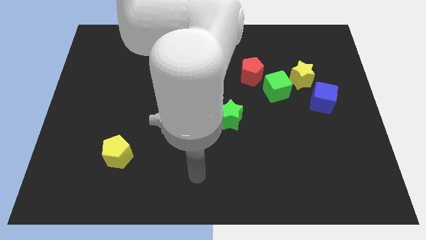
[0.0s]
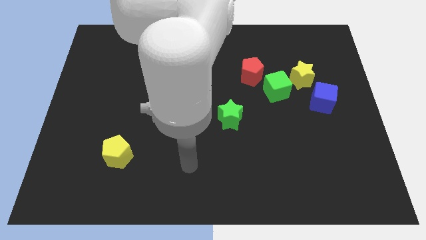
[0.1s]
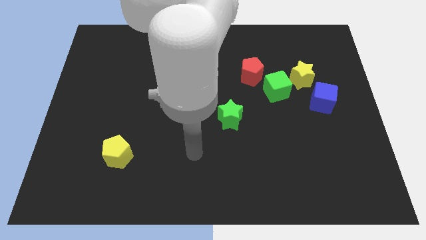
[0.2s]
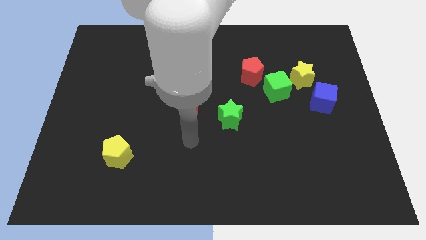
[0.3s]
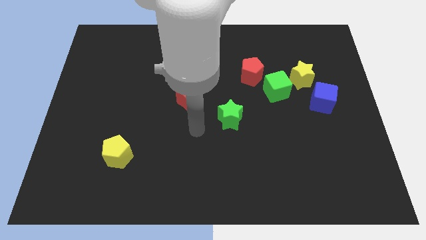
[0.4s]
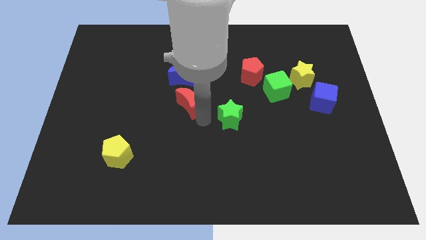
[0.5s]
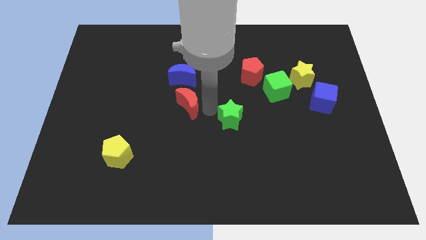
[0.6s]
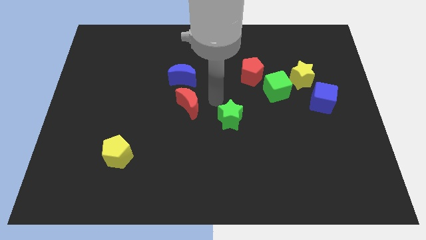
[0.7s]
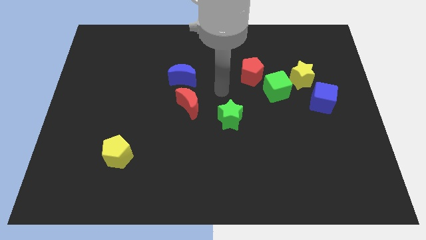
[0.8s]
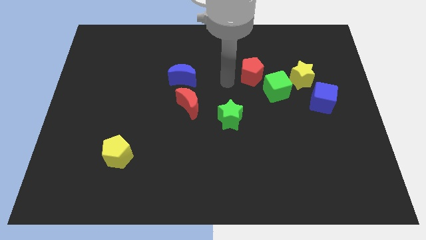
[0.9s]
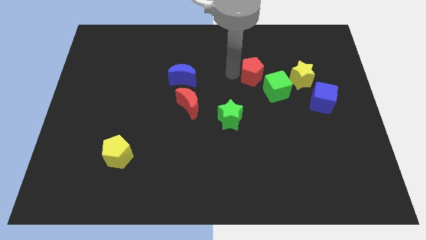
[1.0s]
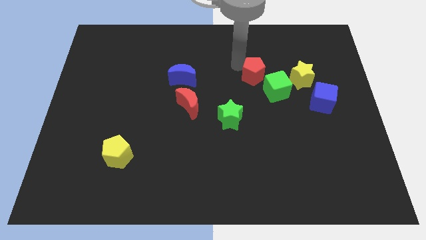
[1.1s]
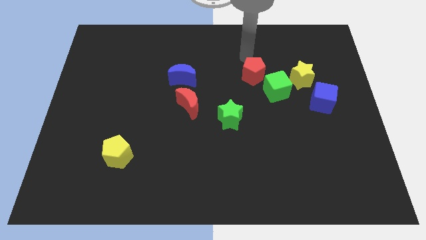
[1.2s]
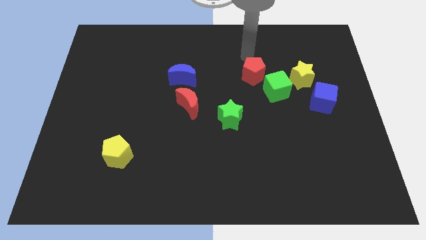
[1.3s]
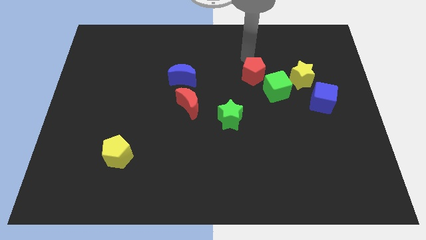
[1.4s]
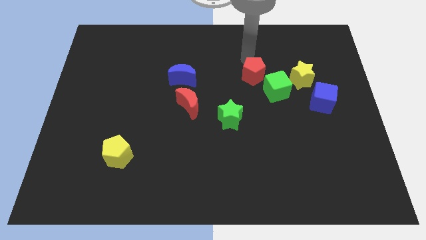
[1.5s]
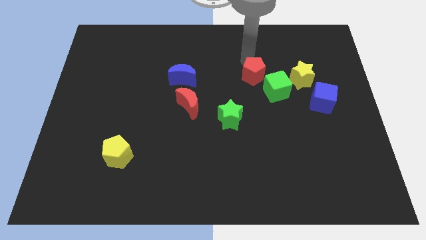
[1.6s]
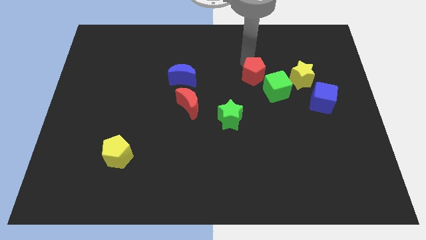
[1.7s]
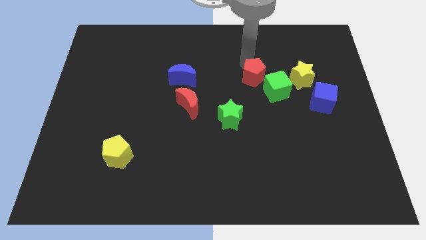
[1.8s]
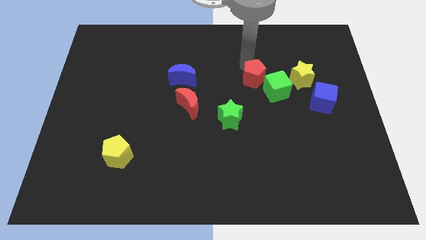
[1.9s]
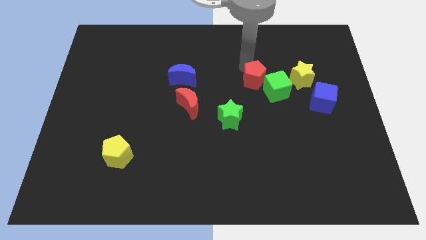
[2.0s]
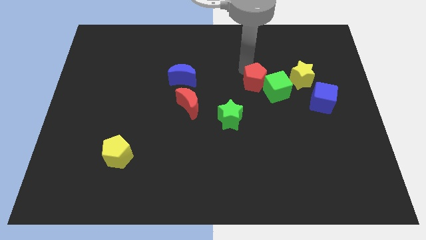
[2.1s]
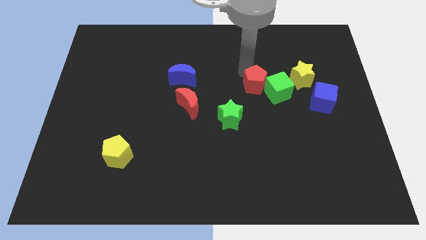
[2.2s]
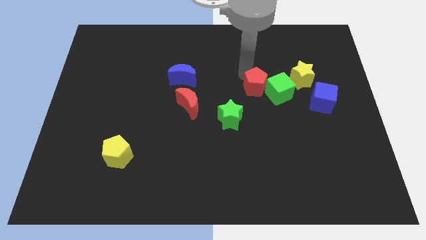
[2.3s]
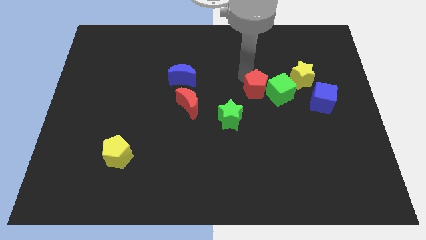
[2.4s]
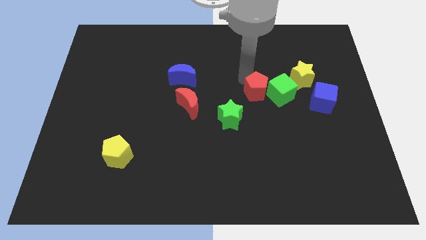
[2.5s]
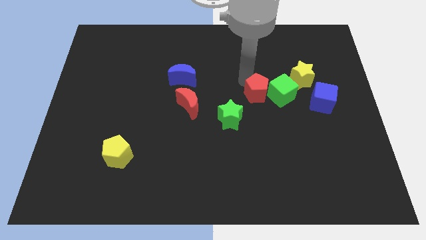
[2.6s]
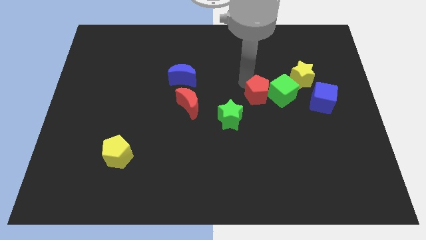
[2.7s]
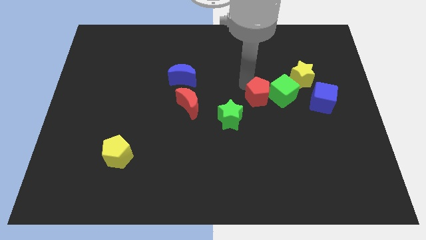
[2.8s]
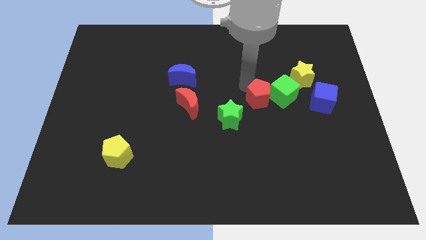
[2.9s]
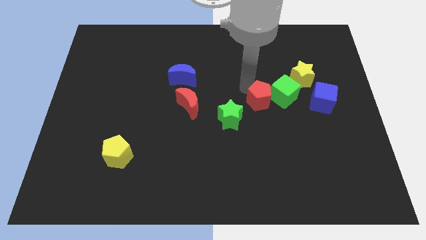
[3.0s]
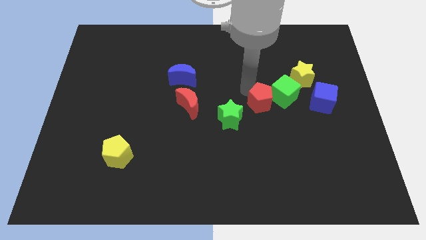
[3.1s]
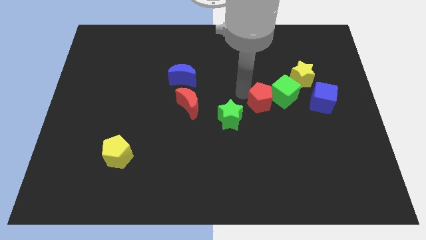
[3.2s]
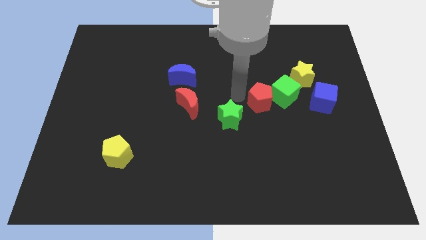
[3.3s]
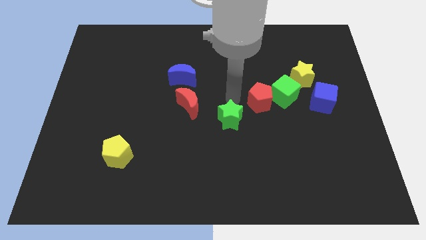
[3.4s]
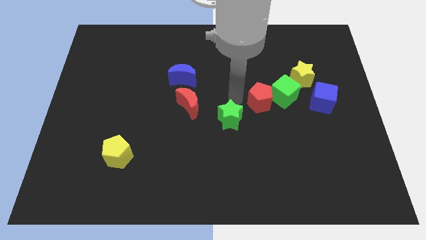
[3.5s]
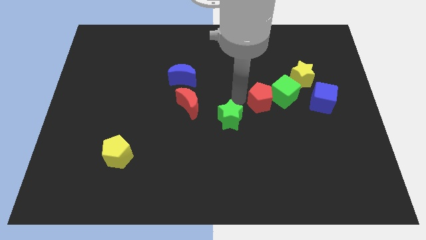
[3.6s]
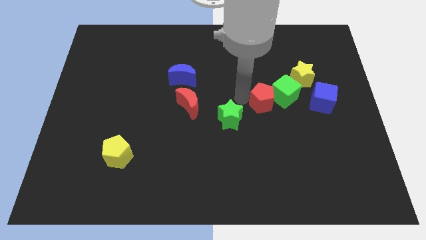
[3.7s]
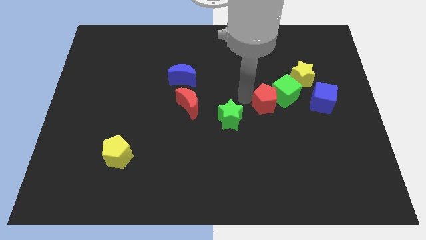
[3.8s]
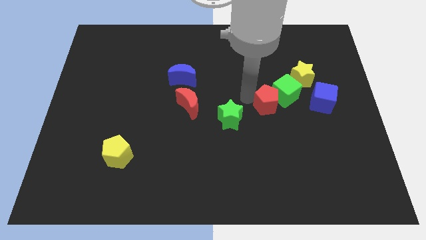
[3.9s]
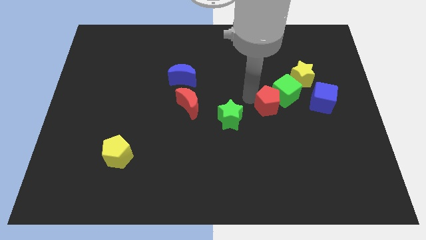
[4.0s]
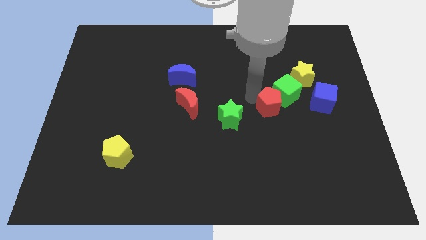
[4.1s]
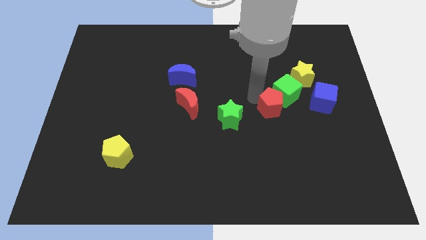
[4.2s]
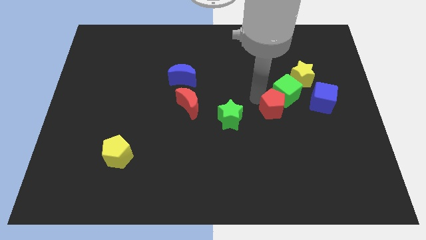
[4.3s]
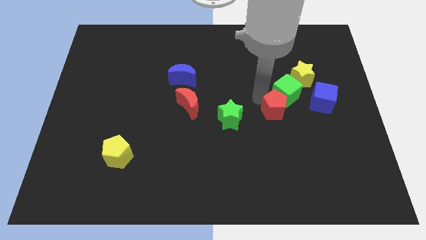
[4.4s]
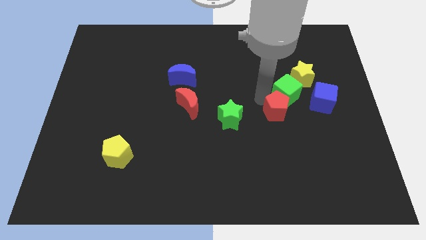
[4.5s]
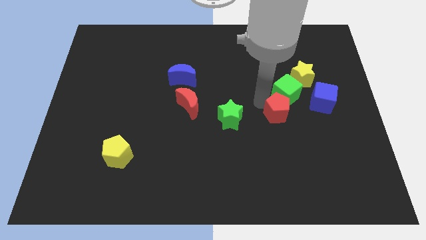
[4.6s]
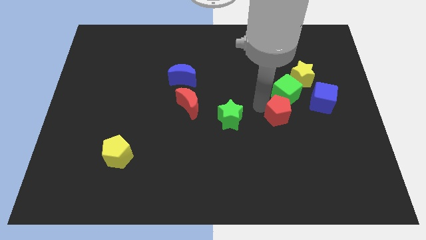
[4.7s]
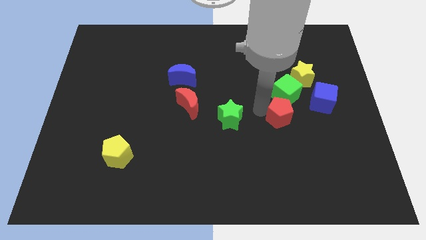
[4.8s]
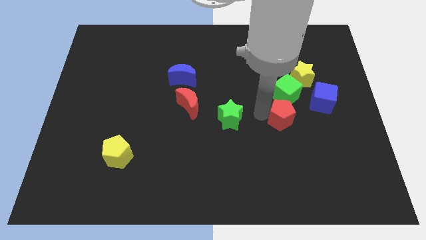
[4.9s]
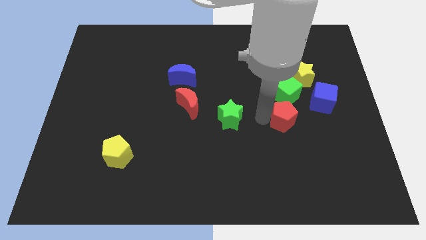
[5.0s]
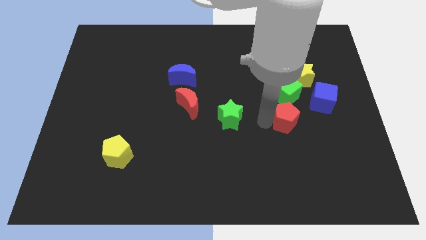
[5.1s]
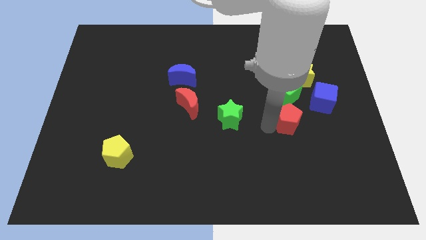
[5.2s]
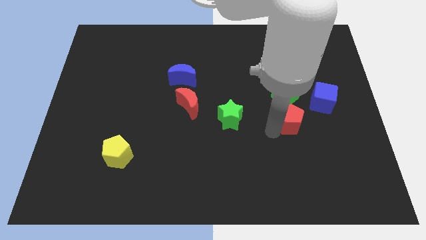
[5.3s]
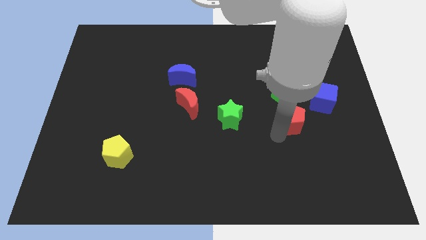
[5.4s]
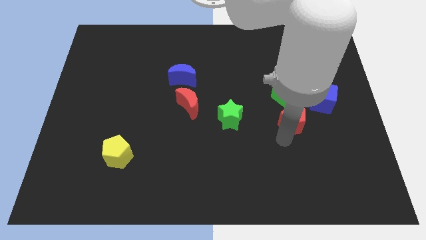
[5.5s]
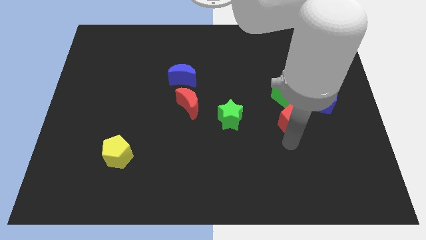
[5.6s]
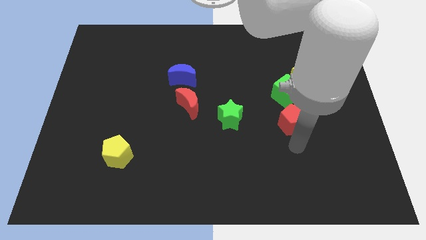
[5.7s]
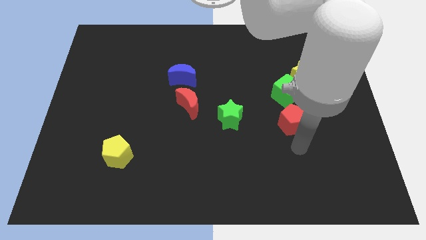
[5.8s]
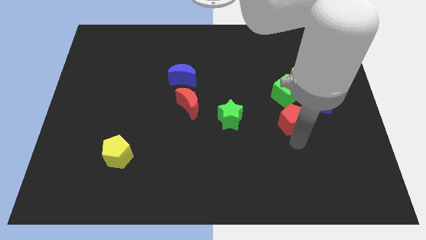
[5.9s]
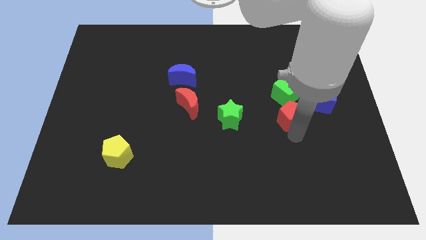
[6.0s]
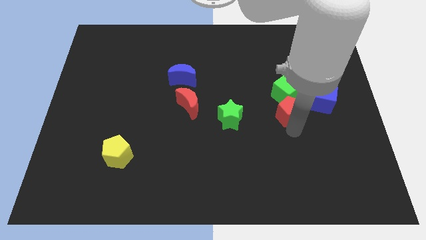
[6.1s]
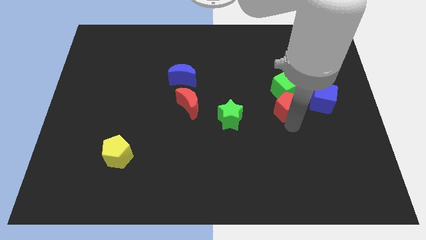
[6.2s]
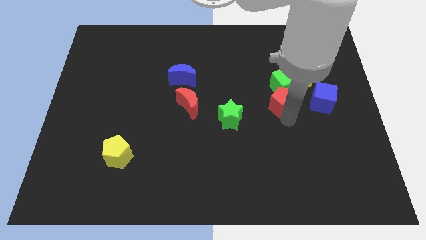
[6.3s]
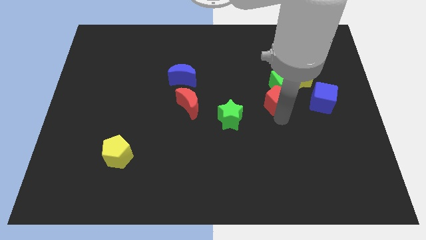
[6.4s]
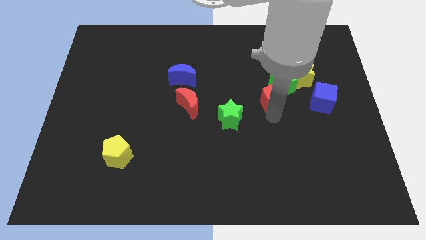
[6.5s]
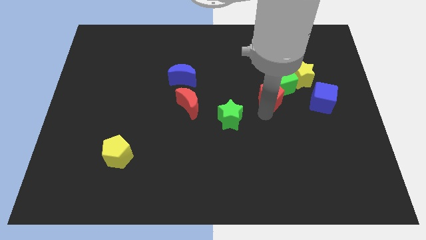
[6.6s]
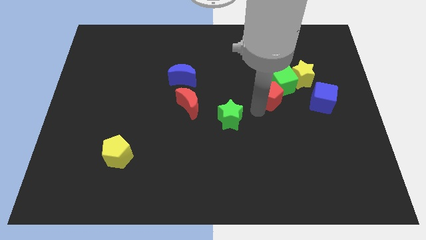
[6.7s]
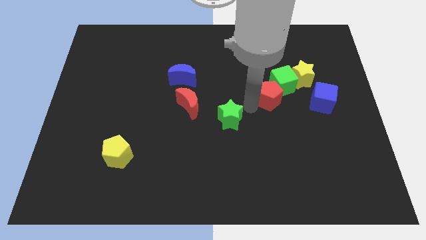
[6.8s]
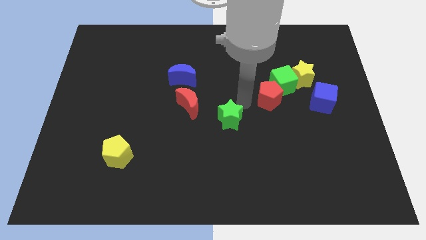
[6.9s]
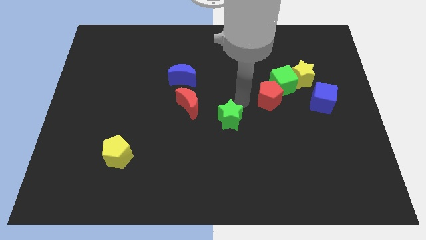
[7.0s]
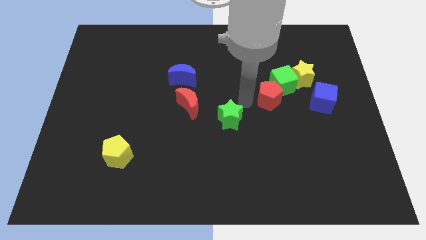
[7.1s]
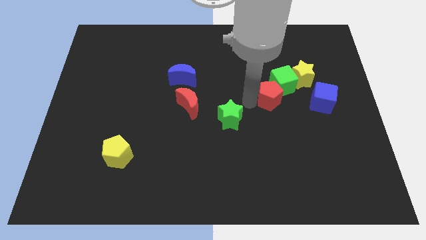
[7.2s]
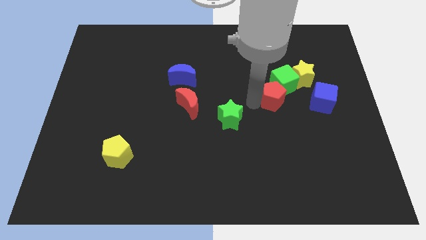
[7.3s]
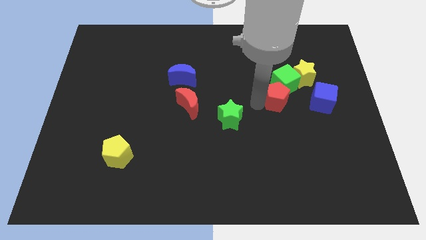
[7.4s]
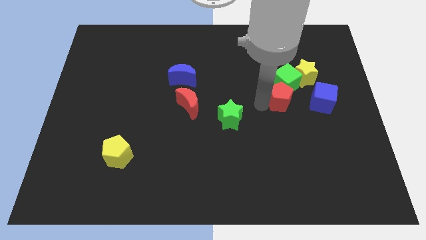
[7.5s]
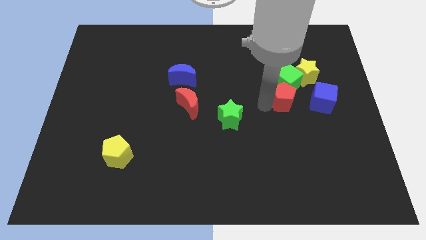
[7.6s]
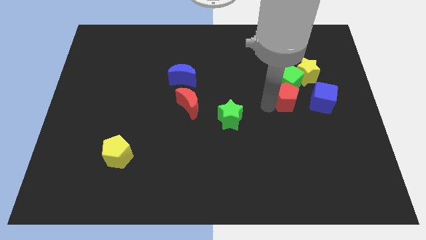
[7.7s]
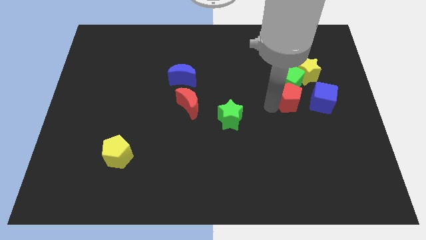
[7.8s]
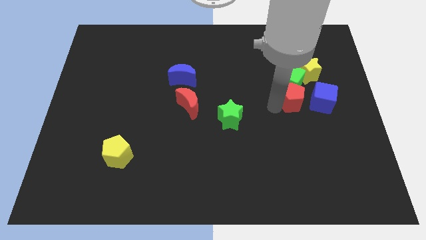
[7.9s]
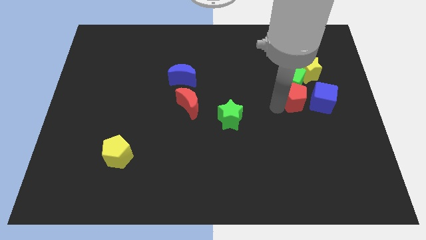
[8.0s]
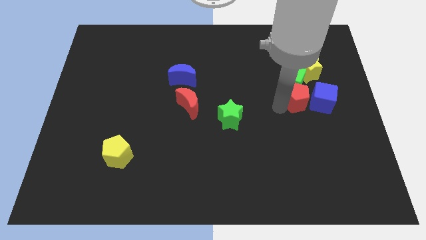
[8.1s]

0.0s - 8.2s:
slide the red pentagon next to the blue cube
